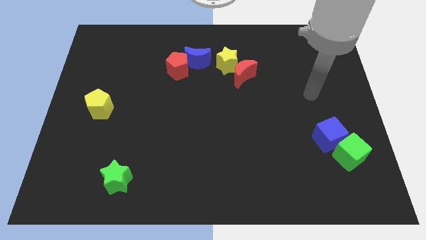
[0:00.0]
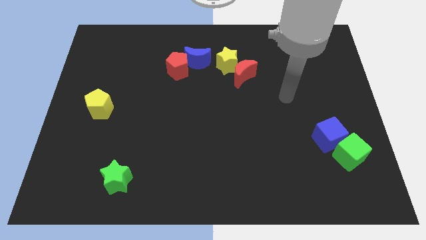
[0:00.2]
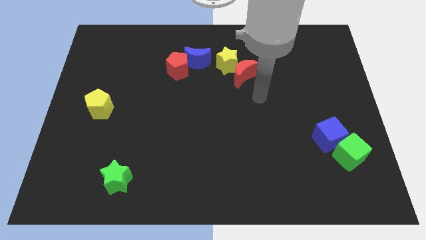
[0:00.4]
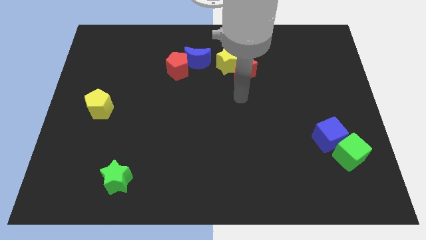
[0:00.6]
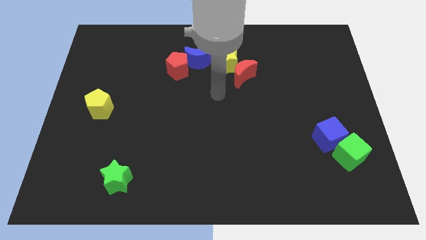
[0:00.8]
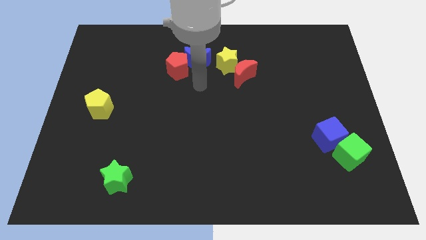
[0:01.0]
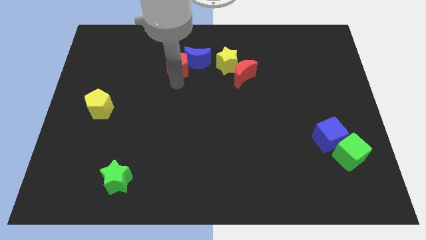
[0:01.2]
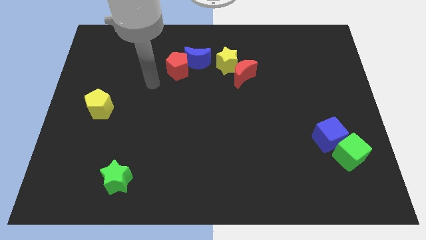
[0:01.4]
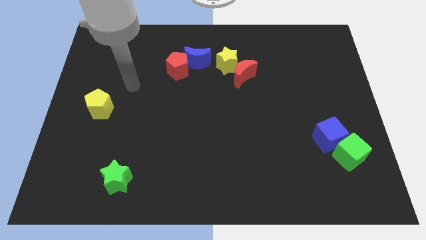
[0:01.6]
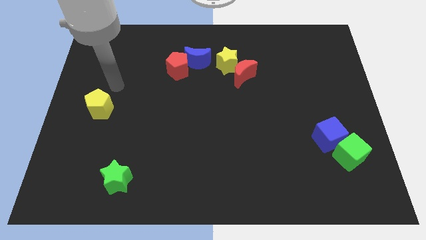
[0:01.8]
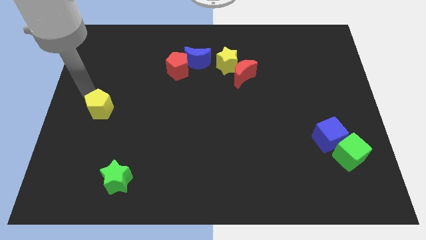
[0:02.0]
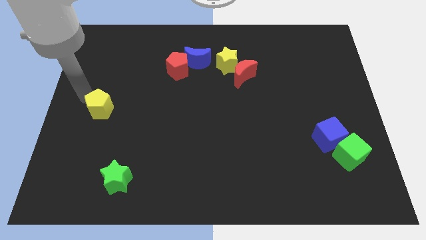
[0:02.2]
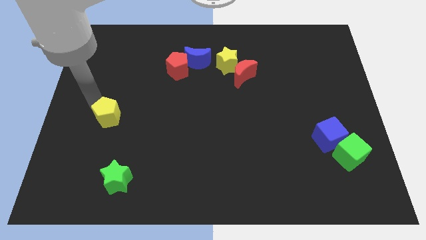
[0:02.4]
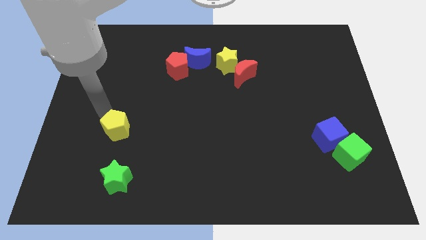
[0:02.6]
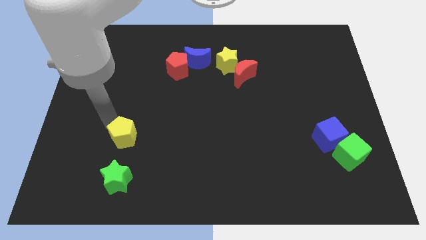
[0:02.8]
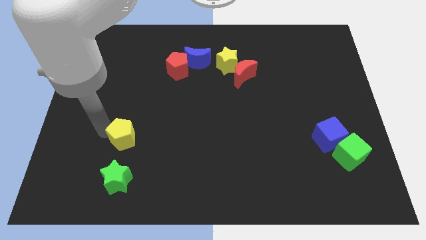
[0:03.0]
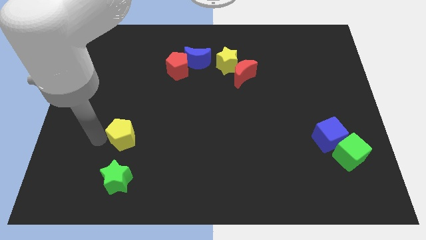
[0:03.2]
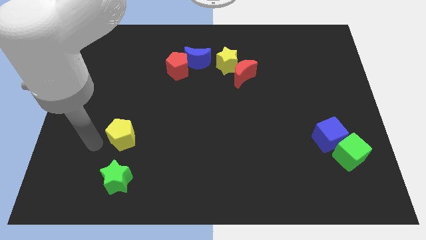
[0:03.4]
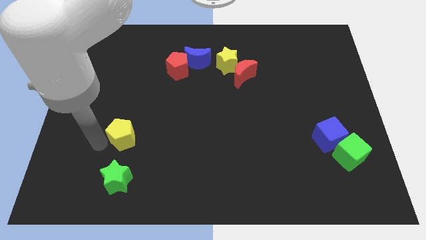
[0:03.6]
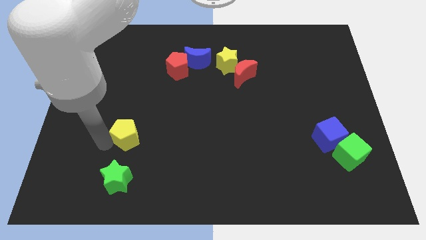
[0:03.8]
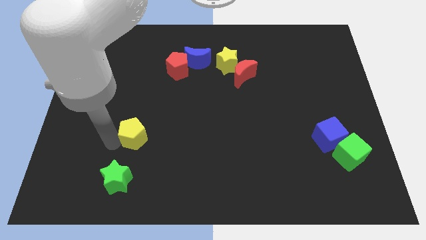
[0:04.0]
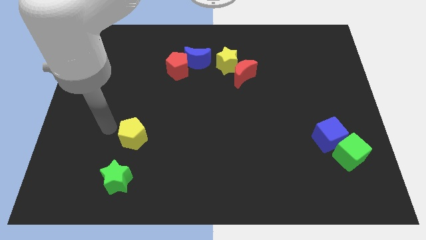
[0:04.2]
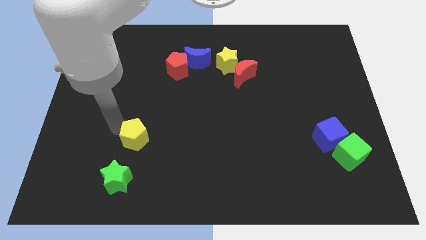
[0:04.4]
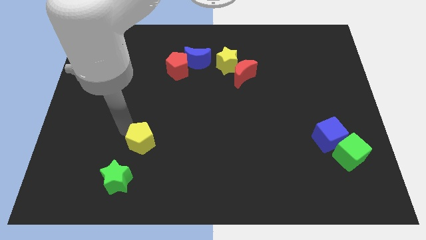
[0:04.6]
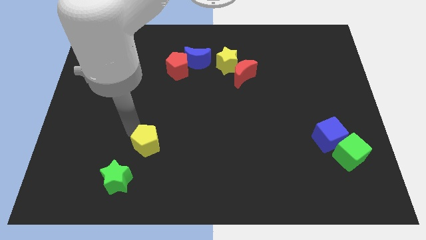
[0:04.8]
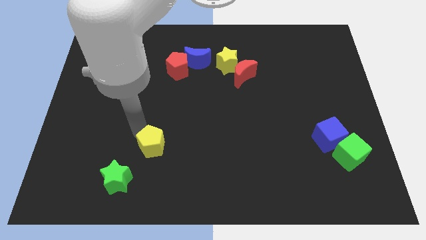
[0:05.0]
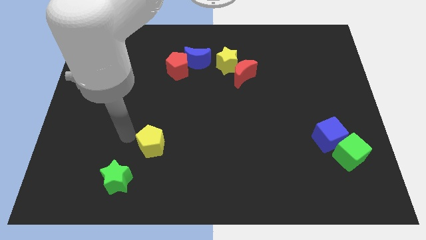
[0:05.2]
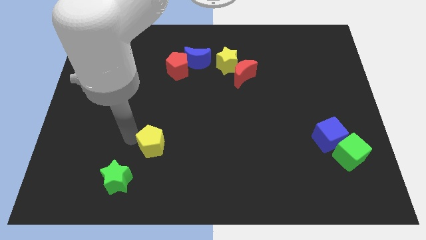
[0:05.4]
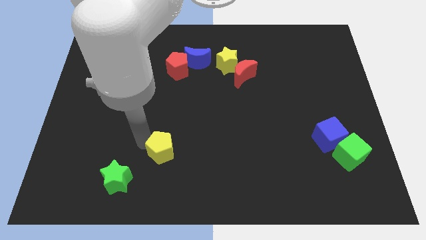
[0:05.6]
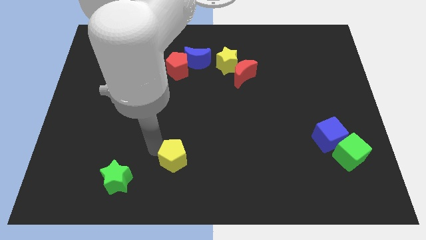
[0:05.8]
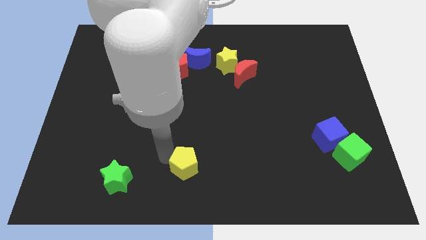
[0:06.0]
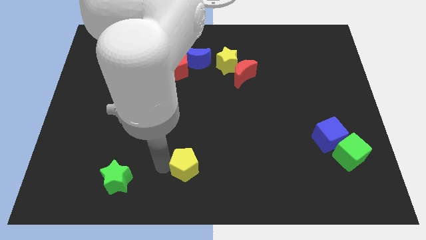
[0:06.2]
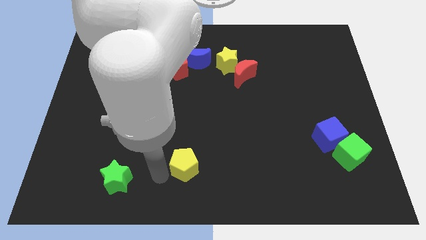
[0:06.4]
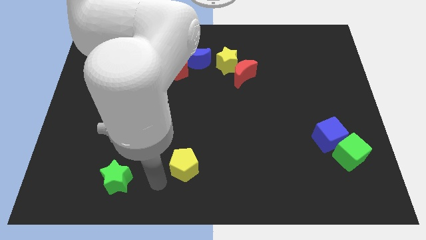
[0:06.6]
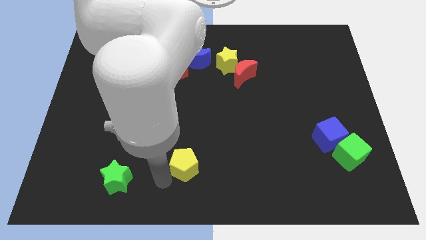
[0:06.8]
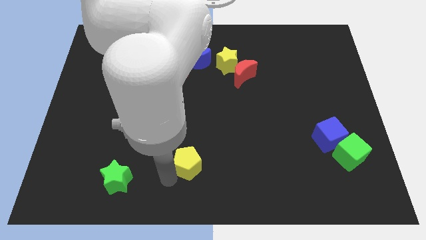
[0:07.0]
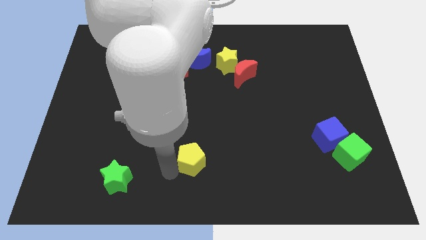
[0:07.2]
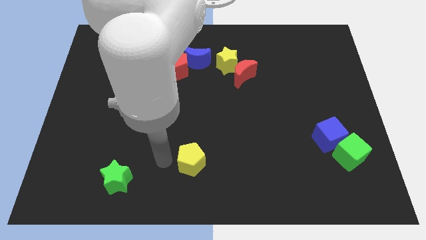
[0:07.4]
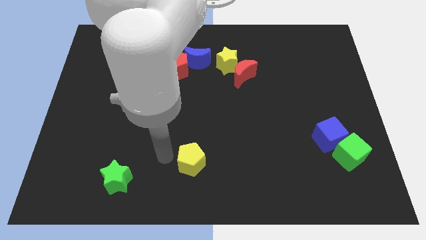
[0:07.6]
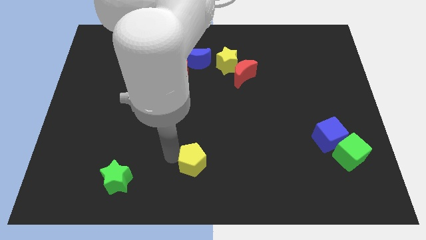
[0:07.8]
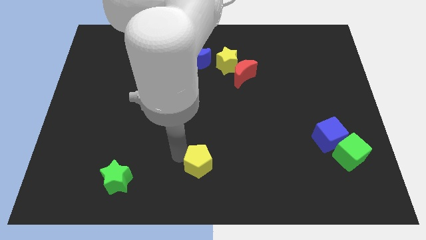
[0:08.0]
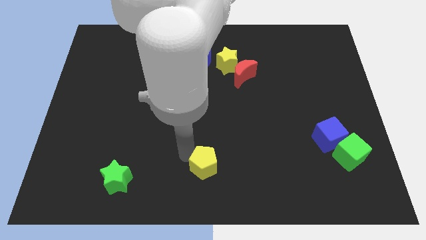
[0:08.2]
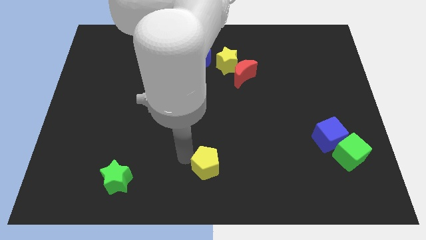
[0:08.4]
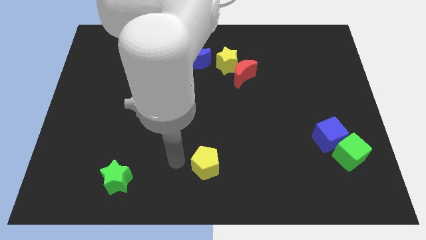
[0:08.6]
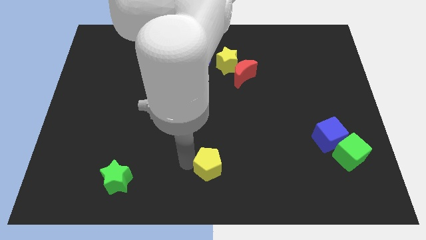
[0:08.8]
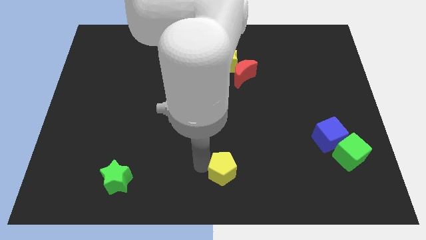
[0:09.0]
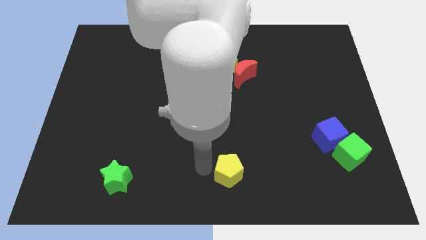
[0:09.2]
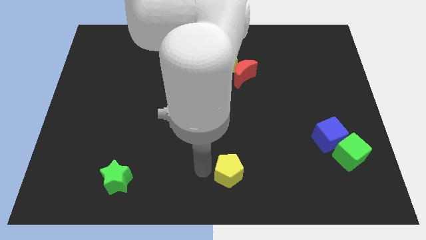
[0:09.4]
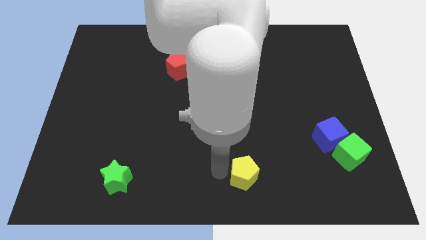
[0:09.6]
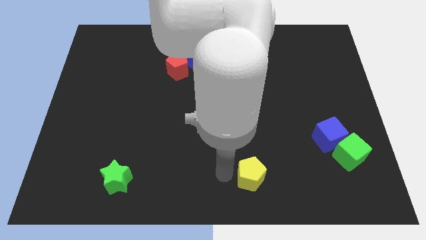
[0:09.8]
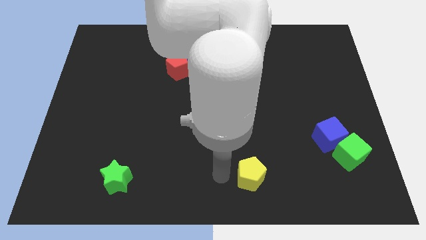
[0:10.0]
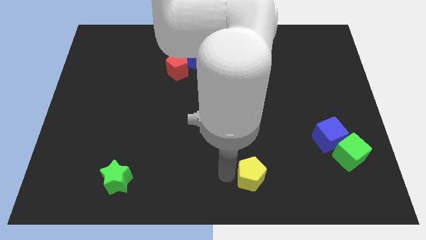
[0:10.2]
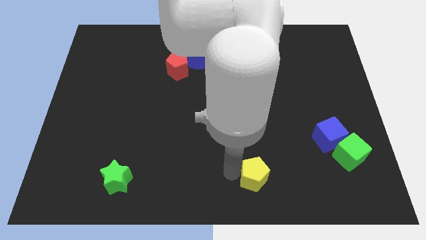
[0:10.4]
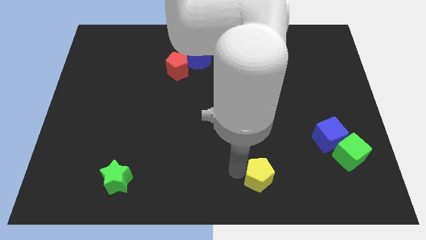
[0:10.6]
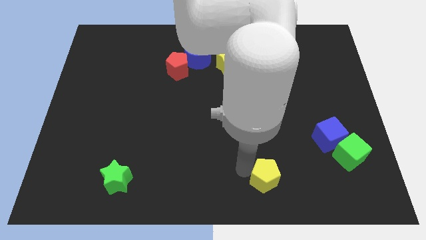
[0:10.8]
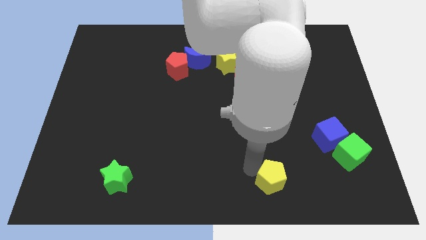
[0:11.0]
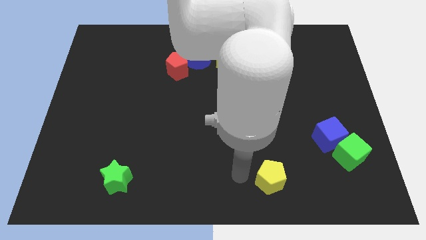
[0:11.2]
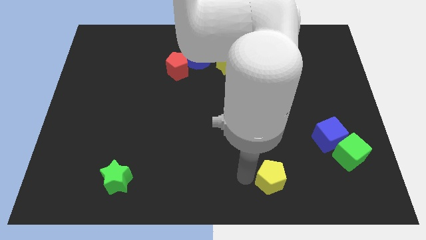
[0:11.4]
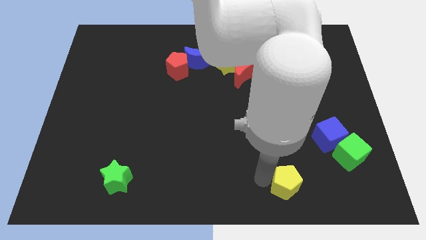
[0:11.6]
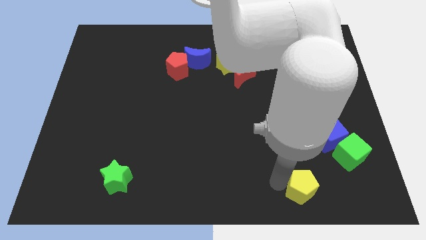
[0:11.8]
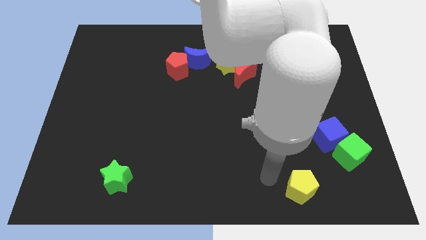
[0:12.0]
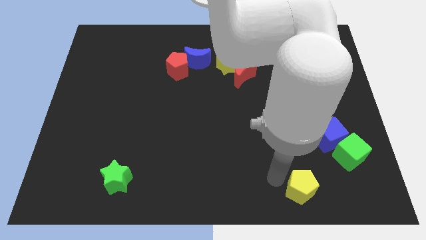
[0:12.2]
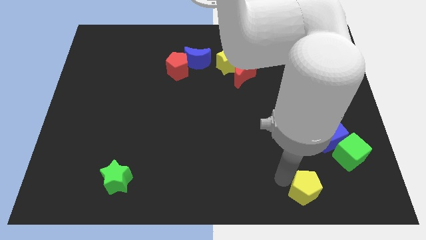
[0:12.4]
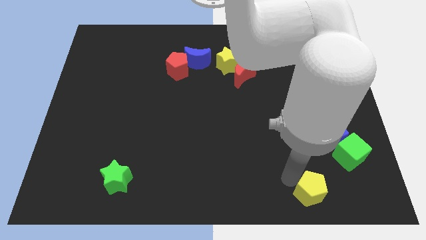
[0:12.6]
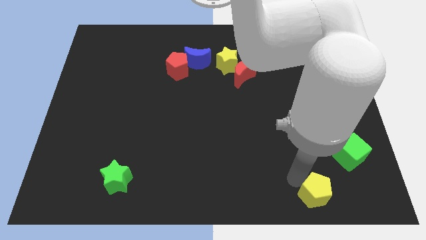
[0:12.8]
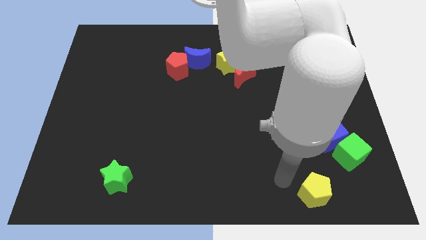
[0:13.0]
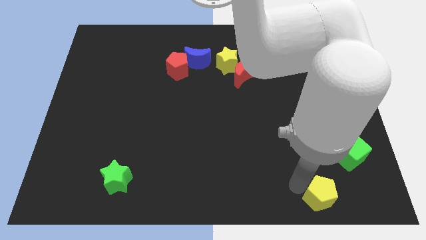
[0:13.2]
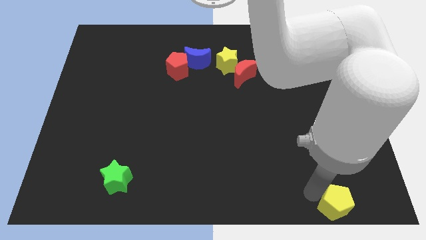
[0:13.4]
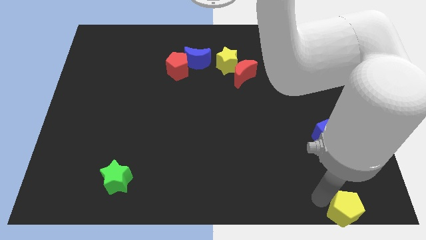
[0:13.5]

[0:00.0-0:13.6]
move the yellow pentagon to the bottom right corner
